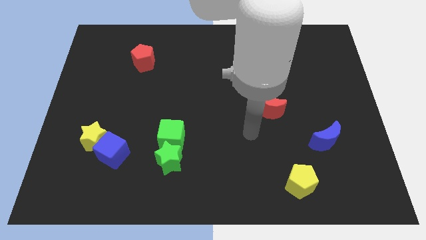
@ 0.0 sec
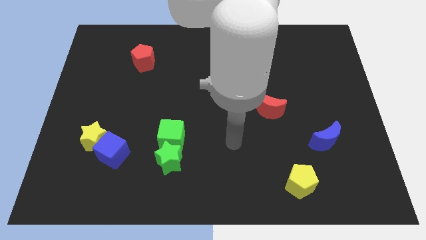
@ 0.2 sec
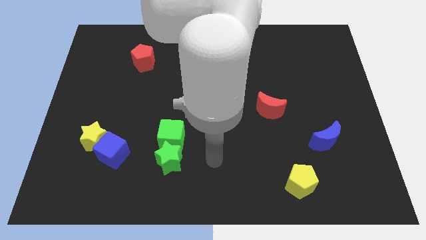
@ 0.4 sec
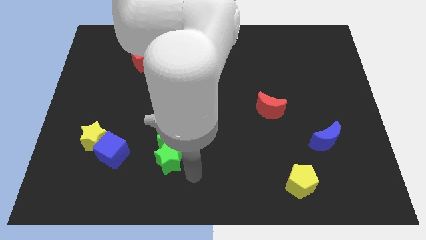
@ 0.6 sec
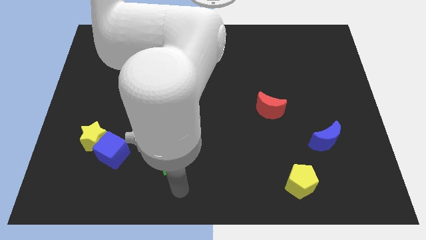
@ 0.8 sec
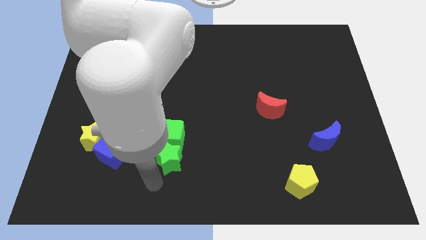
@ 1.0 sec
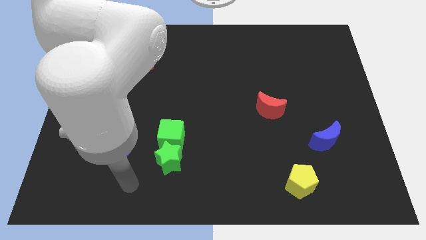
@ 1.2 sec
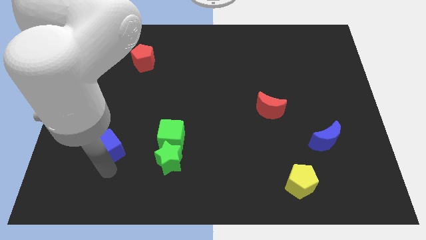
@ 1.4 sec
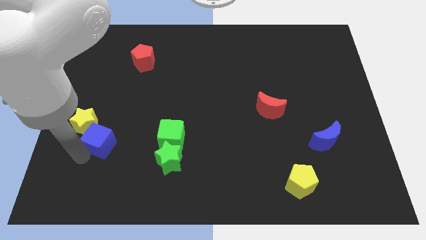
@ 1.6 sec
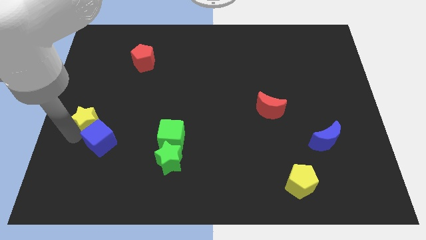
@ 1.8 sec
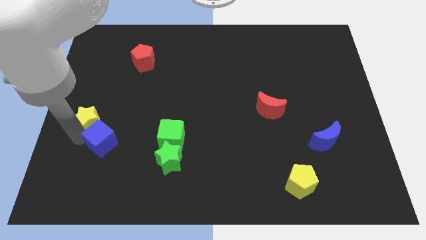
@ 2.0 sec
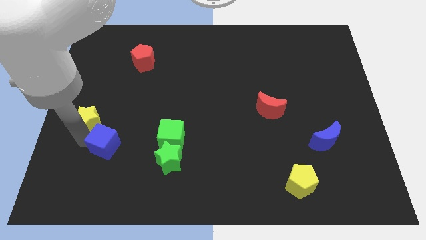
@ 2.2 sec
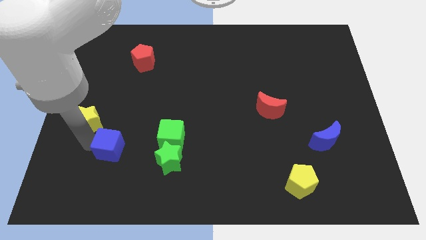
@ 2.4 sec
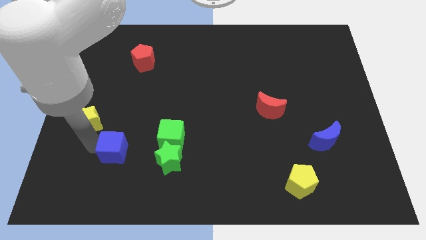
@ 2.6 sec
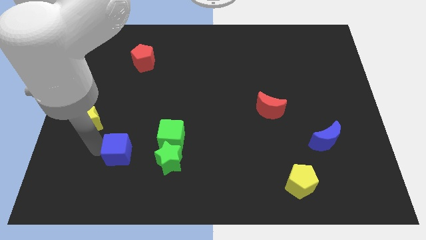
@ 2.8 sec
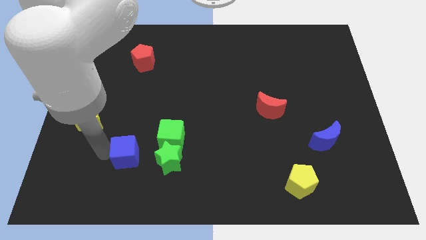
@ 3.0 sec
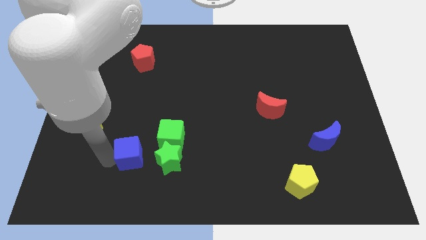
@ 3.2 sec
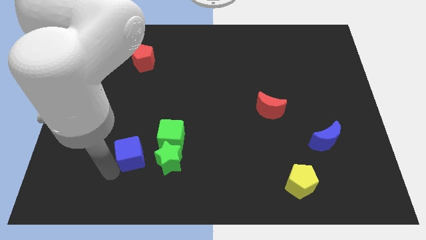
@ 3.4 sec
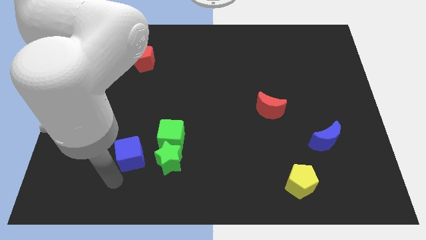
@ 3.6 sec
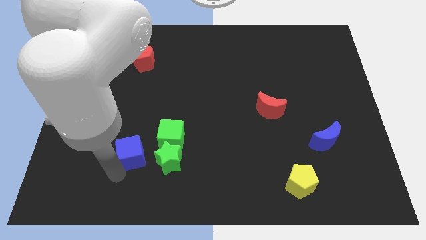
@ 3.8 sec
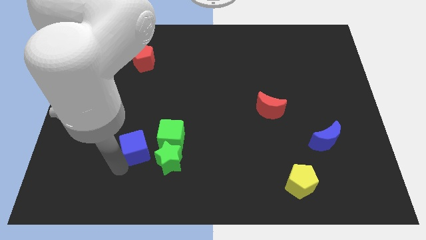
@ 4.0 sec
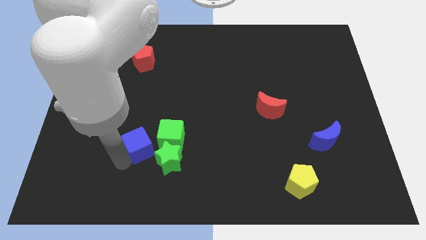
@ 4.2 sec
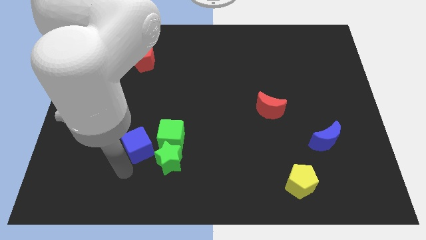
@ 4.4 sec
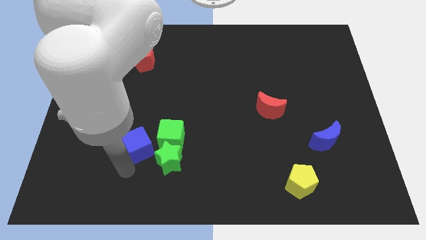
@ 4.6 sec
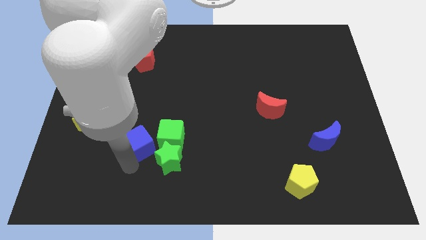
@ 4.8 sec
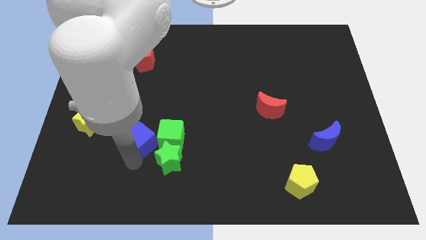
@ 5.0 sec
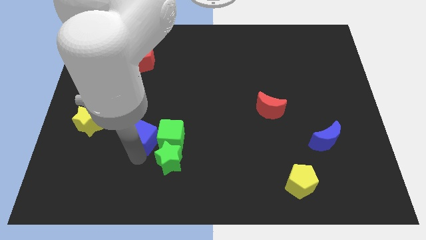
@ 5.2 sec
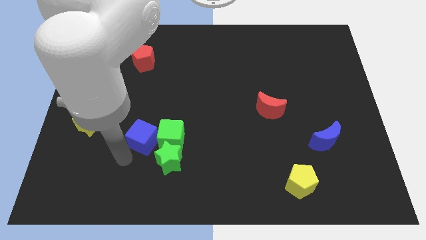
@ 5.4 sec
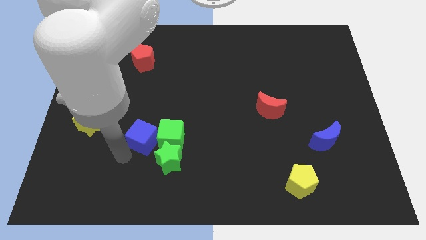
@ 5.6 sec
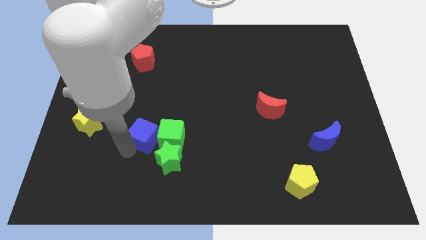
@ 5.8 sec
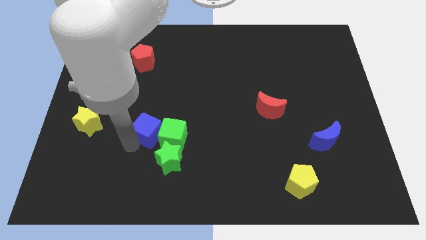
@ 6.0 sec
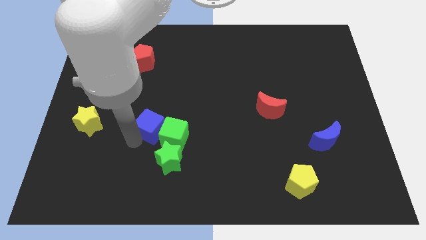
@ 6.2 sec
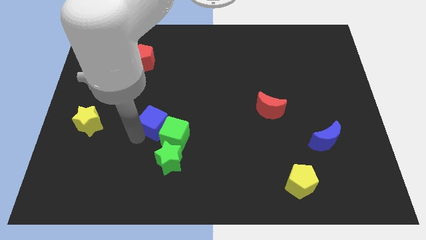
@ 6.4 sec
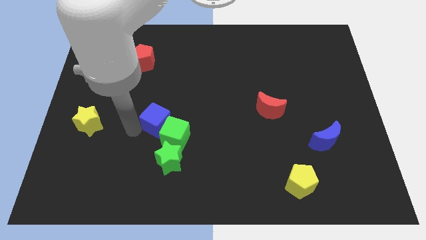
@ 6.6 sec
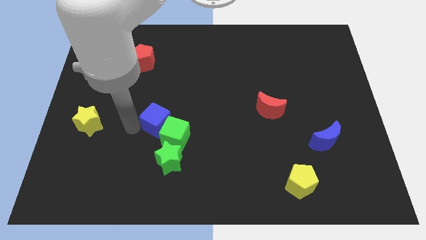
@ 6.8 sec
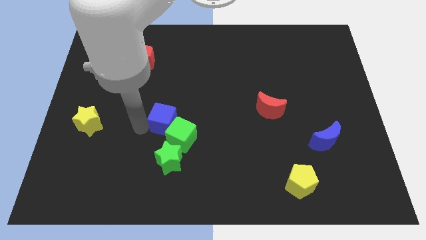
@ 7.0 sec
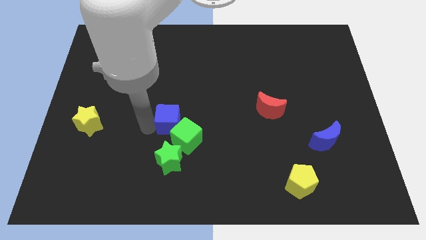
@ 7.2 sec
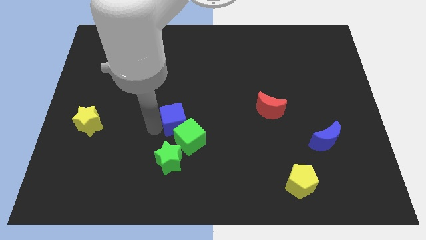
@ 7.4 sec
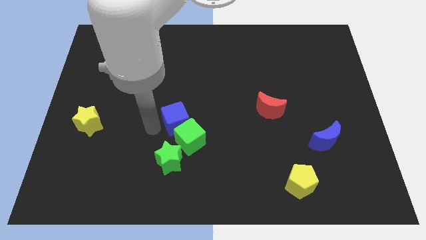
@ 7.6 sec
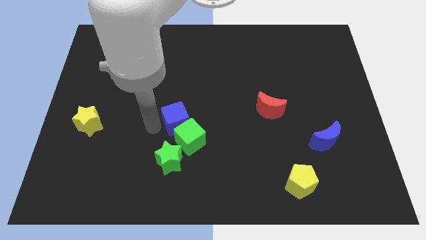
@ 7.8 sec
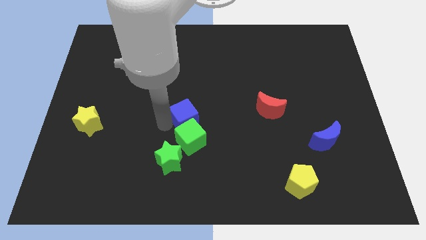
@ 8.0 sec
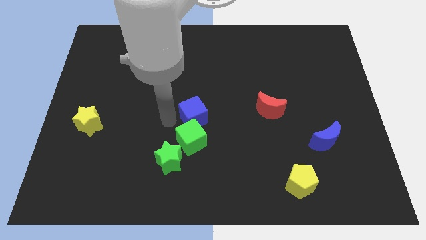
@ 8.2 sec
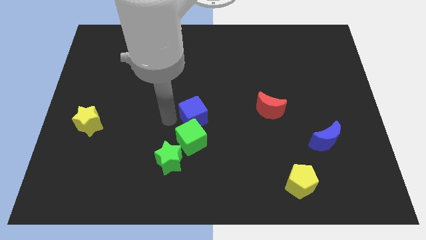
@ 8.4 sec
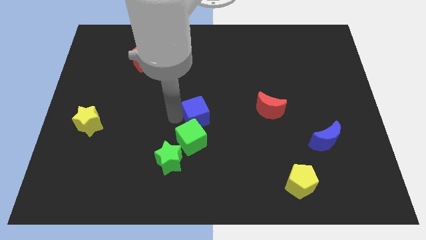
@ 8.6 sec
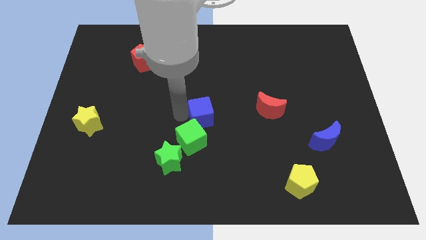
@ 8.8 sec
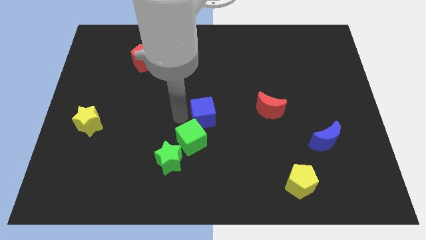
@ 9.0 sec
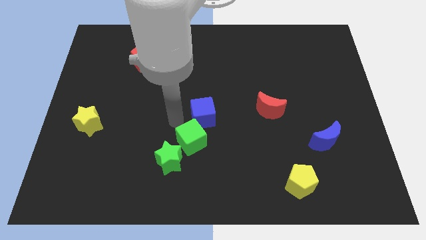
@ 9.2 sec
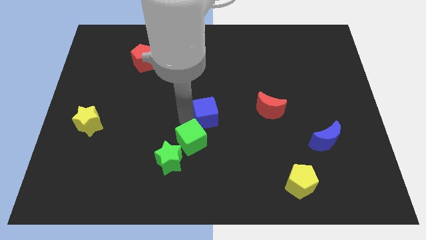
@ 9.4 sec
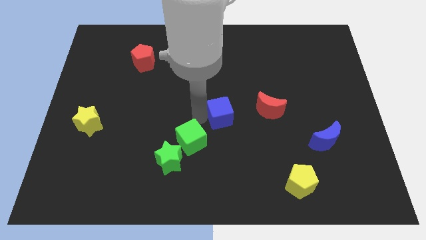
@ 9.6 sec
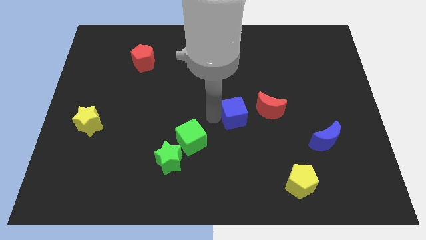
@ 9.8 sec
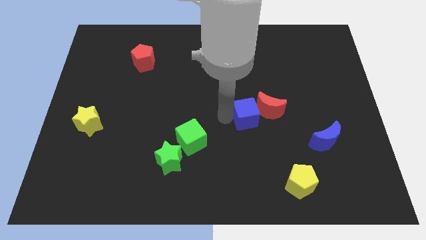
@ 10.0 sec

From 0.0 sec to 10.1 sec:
put the blue cube next to the red moon

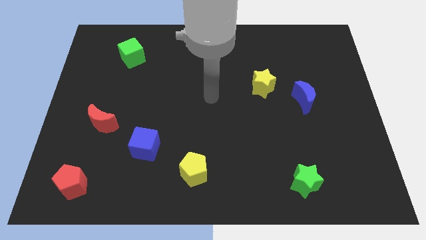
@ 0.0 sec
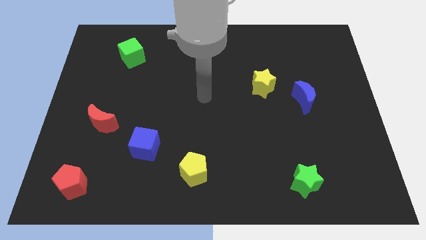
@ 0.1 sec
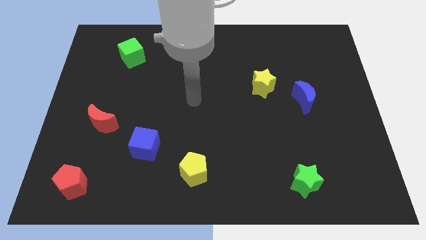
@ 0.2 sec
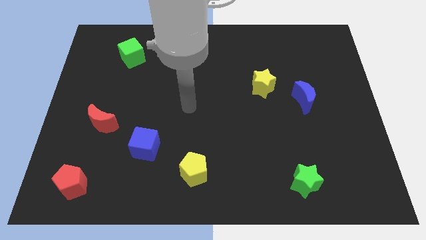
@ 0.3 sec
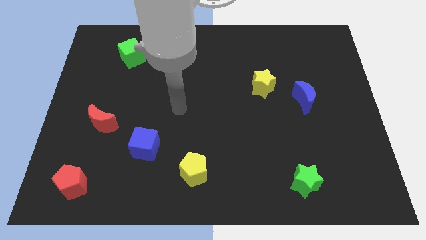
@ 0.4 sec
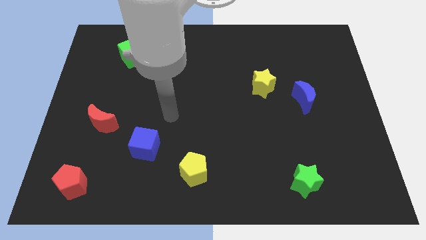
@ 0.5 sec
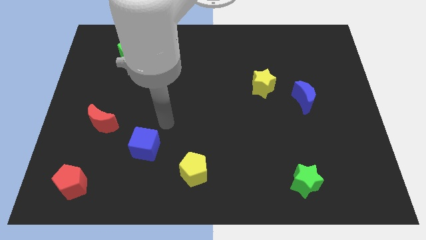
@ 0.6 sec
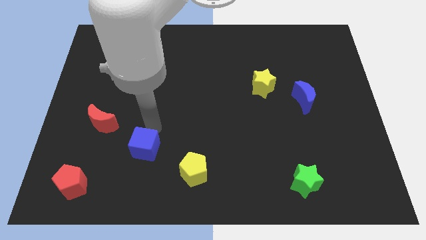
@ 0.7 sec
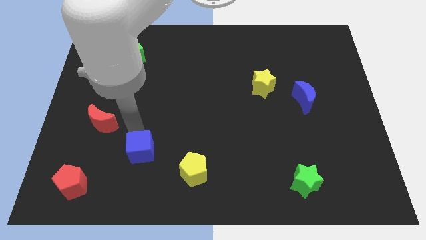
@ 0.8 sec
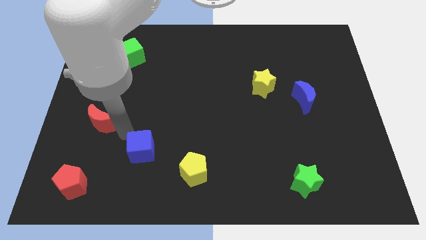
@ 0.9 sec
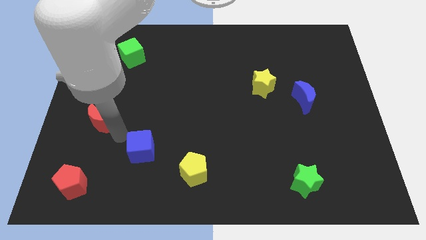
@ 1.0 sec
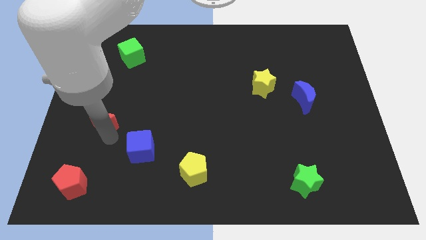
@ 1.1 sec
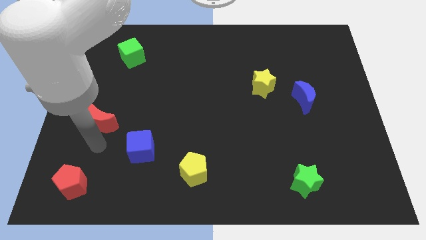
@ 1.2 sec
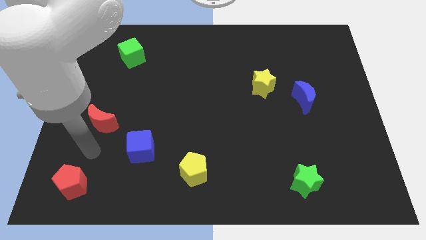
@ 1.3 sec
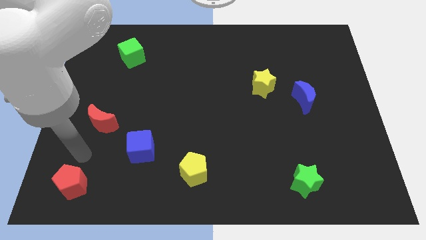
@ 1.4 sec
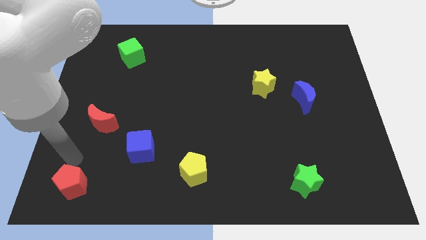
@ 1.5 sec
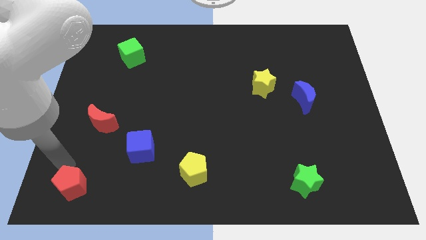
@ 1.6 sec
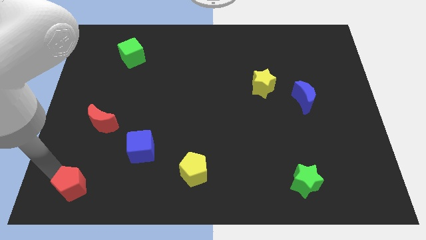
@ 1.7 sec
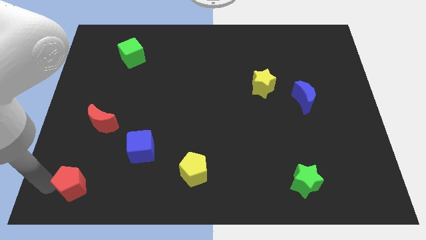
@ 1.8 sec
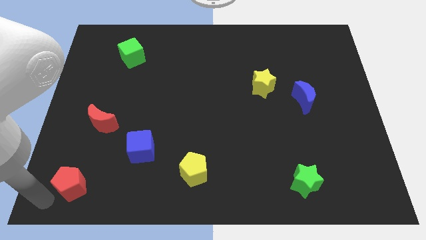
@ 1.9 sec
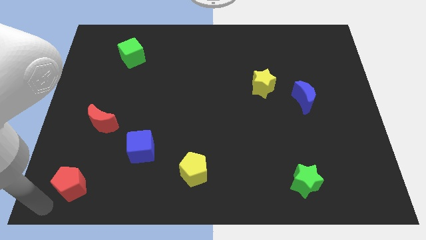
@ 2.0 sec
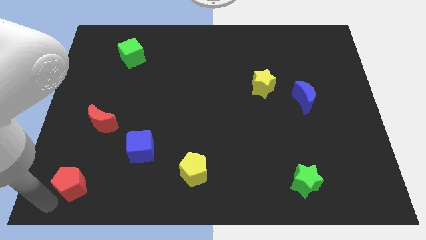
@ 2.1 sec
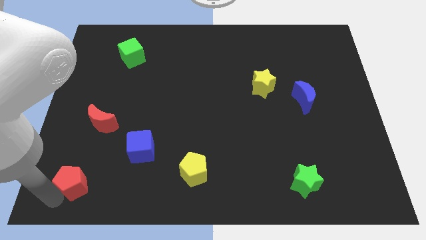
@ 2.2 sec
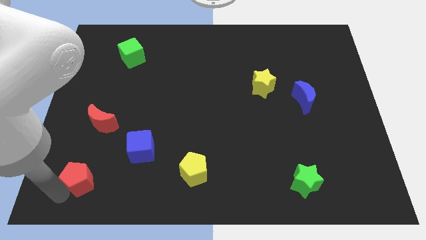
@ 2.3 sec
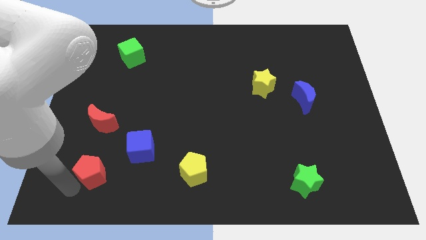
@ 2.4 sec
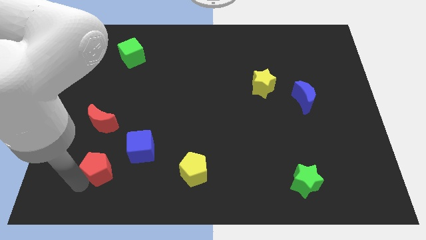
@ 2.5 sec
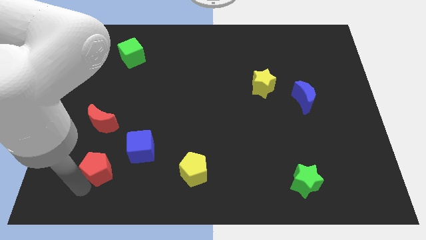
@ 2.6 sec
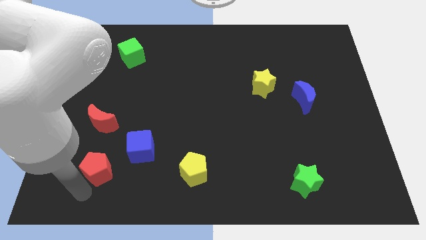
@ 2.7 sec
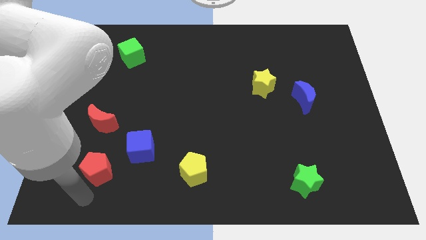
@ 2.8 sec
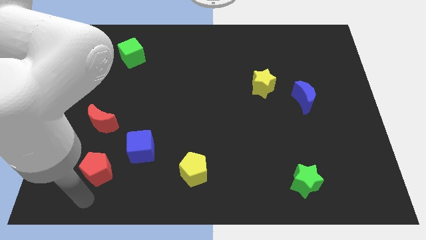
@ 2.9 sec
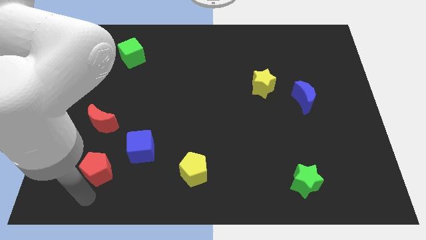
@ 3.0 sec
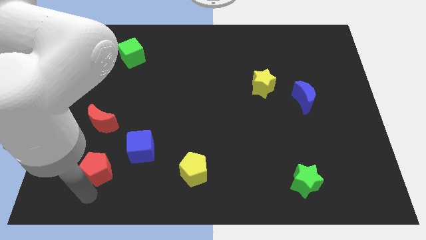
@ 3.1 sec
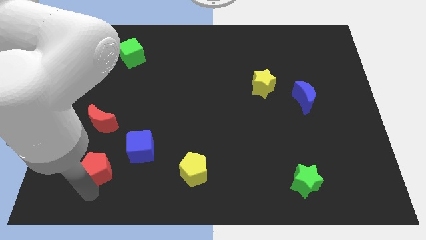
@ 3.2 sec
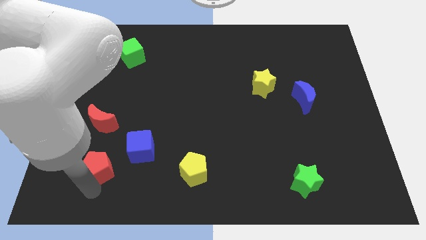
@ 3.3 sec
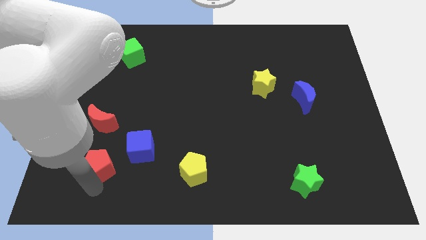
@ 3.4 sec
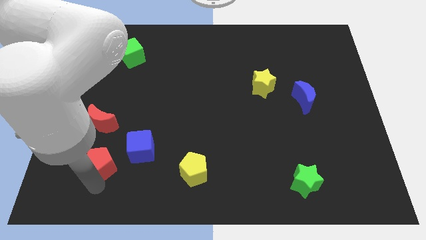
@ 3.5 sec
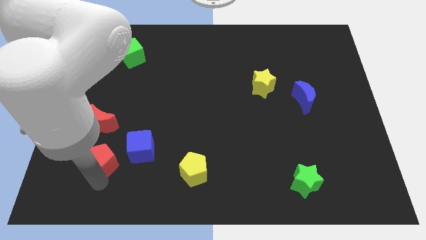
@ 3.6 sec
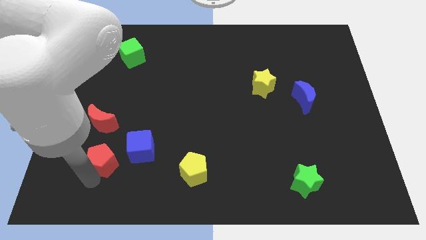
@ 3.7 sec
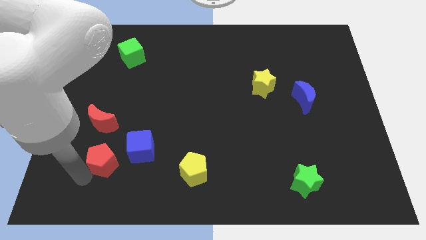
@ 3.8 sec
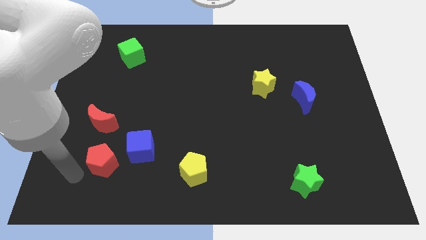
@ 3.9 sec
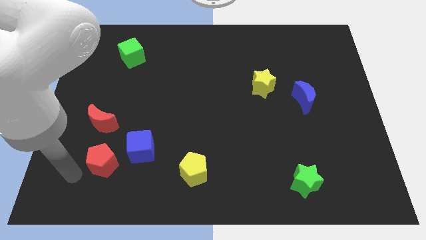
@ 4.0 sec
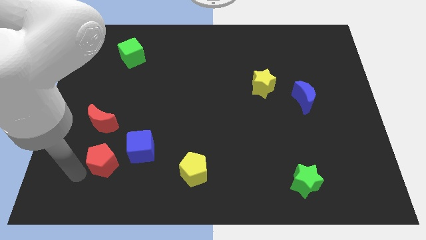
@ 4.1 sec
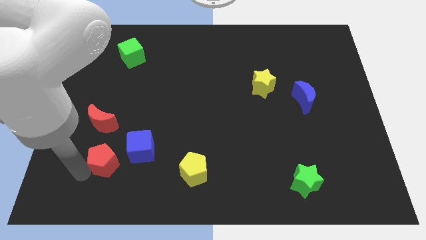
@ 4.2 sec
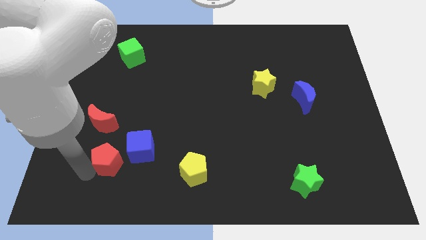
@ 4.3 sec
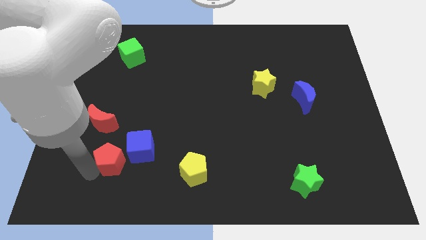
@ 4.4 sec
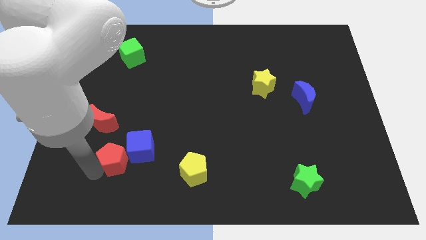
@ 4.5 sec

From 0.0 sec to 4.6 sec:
put the red pentagon close to the blue cube
